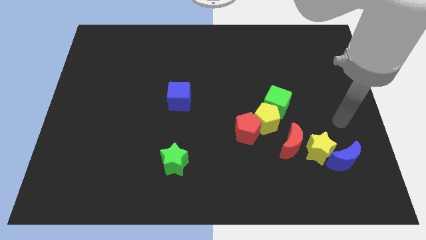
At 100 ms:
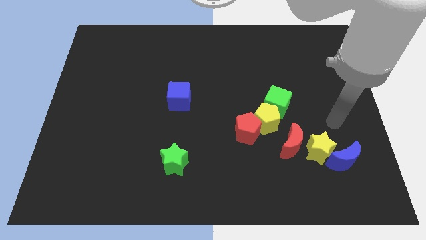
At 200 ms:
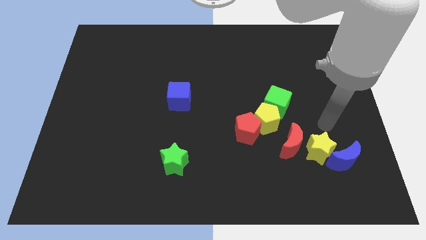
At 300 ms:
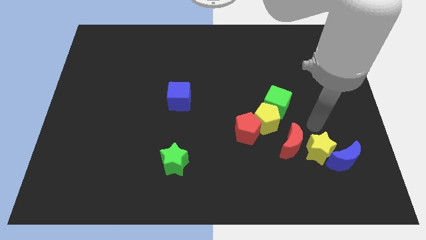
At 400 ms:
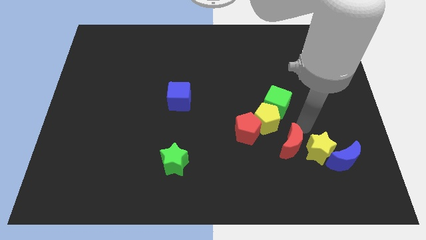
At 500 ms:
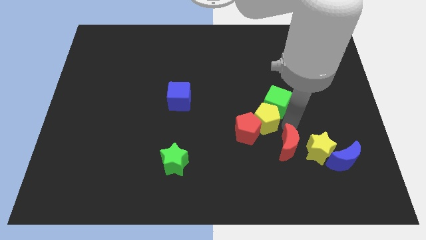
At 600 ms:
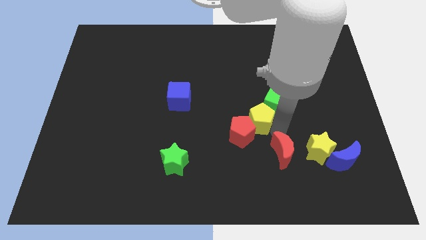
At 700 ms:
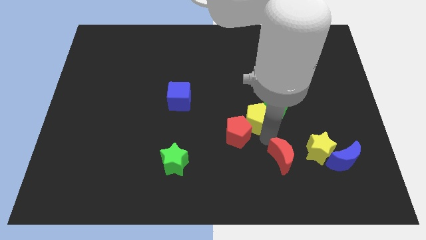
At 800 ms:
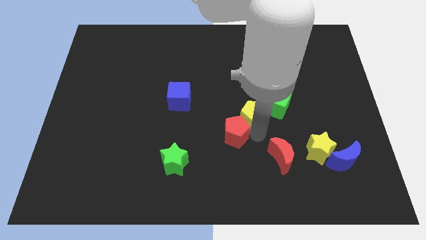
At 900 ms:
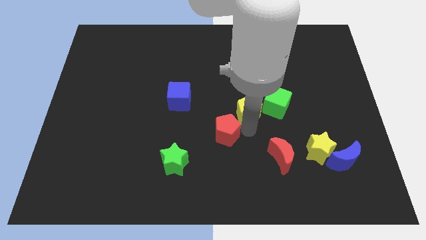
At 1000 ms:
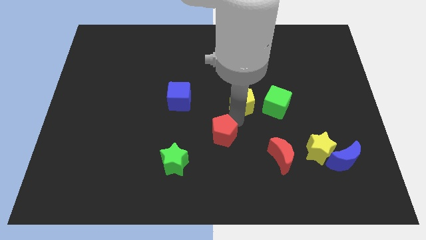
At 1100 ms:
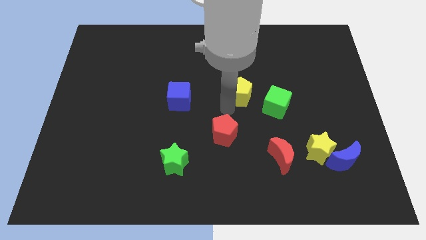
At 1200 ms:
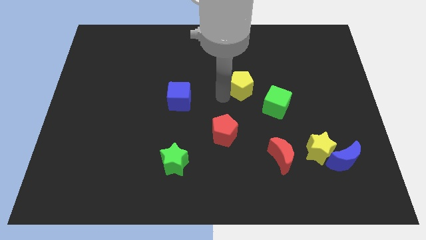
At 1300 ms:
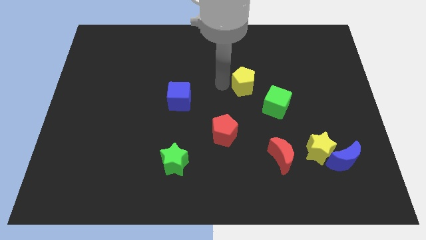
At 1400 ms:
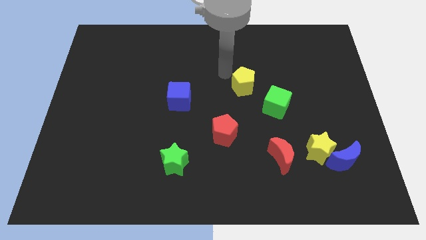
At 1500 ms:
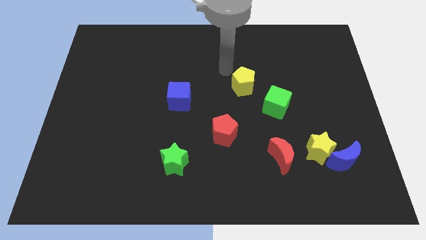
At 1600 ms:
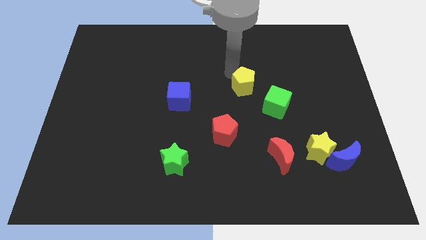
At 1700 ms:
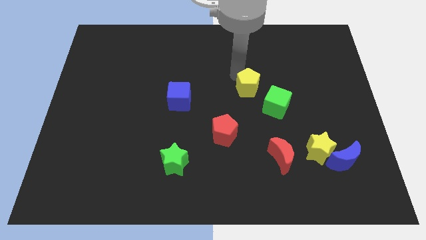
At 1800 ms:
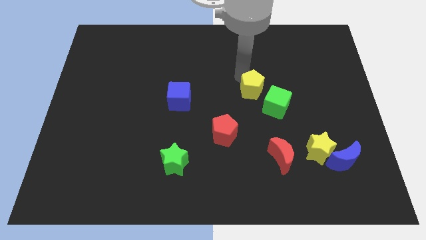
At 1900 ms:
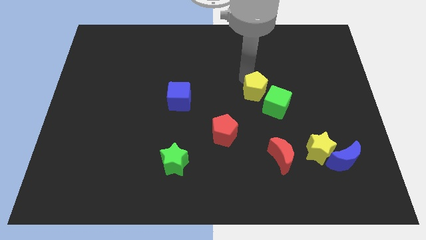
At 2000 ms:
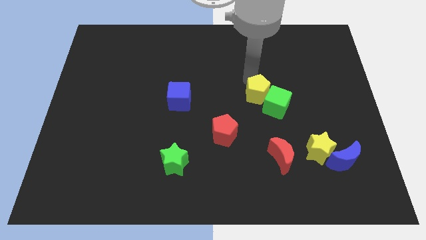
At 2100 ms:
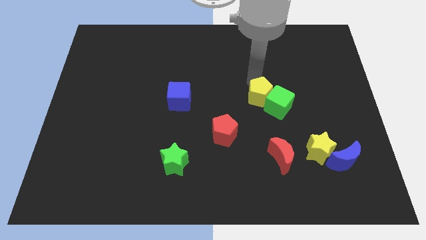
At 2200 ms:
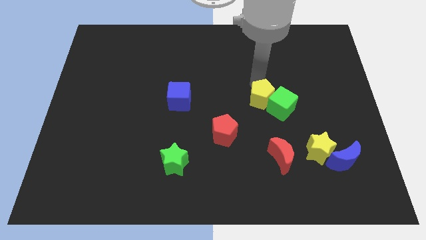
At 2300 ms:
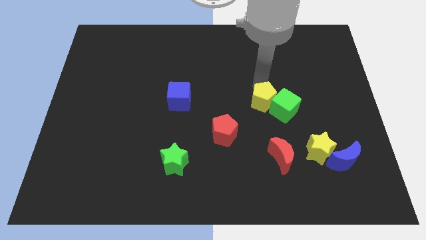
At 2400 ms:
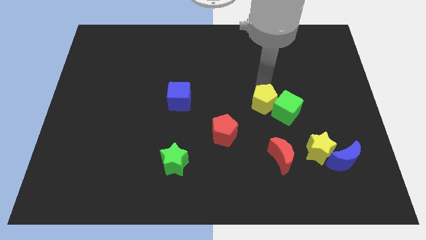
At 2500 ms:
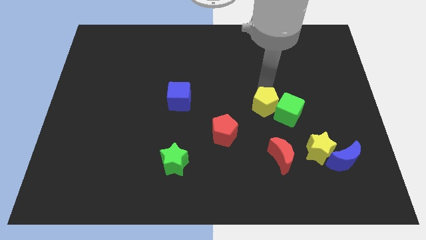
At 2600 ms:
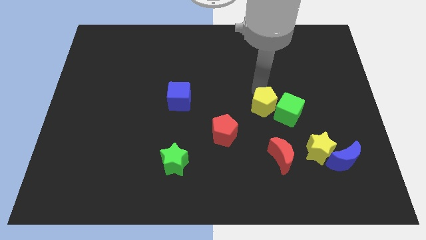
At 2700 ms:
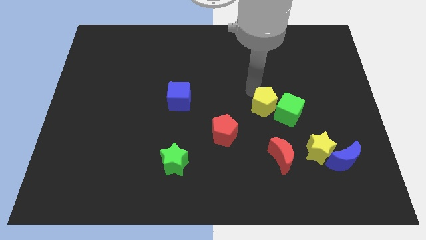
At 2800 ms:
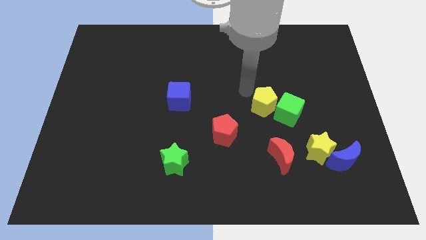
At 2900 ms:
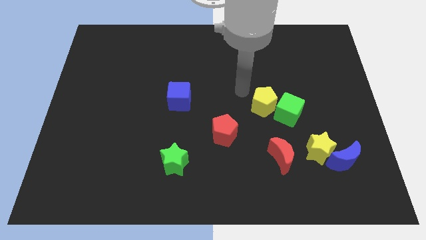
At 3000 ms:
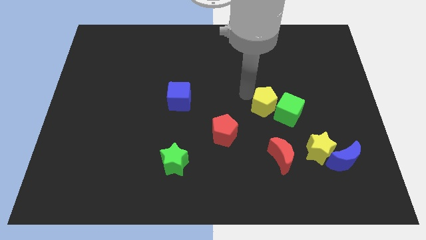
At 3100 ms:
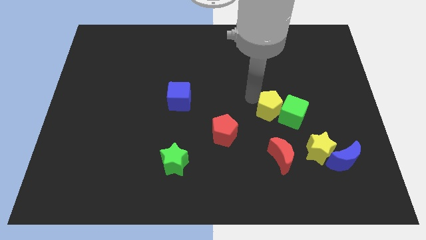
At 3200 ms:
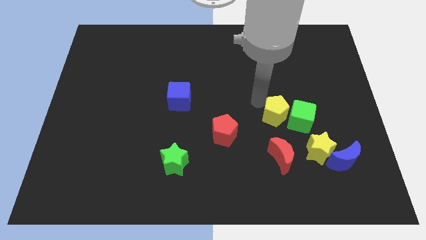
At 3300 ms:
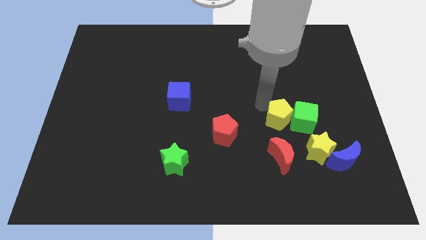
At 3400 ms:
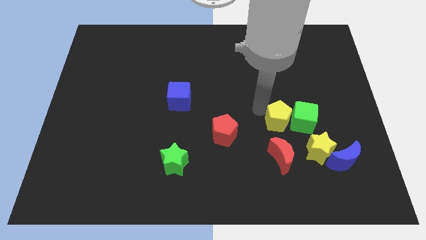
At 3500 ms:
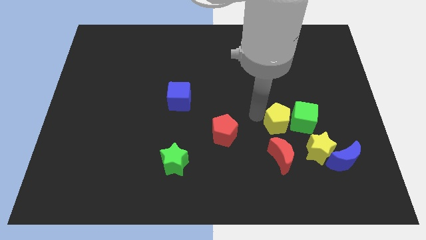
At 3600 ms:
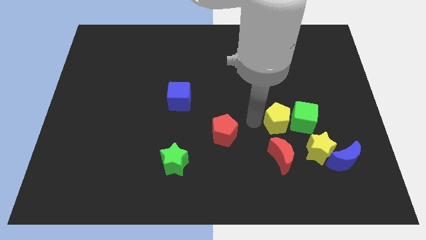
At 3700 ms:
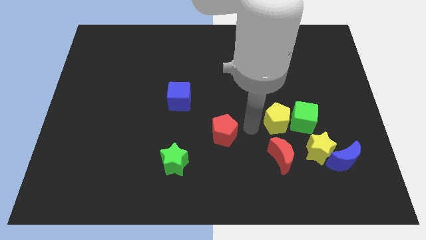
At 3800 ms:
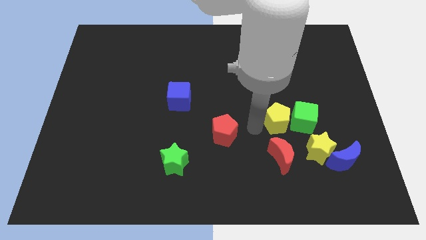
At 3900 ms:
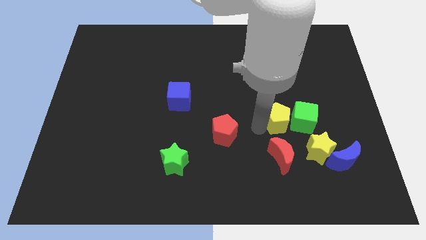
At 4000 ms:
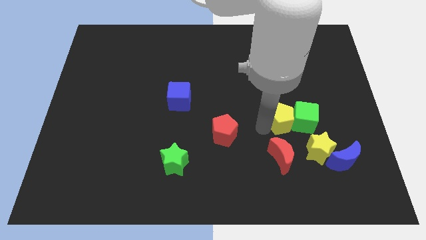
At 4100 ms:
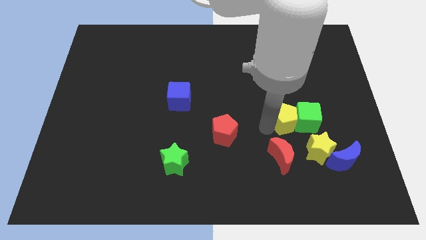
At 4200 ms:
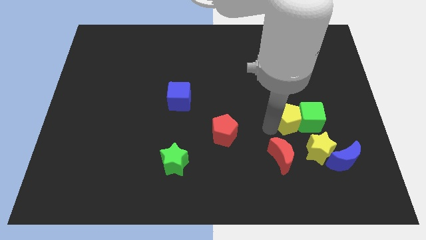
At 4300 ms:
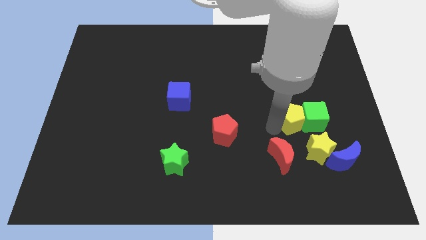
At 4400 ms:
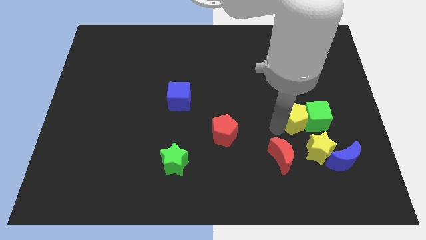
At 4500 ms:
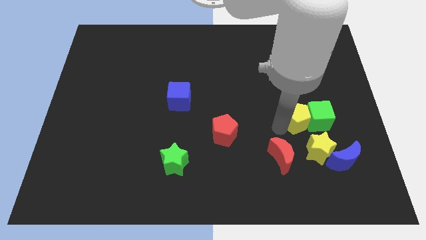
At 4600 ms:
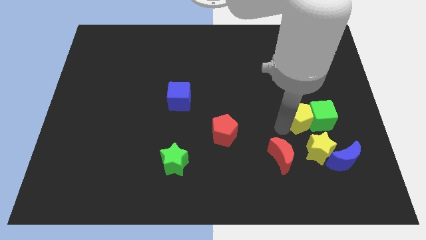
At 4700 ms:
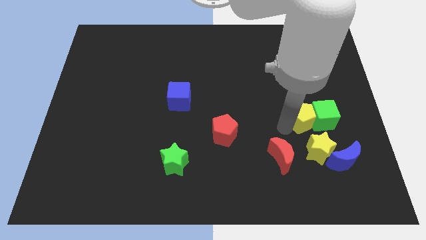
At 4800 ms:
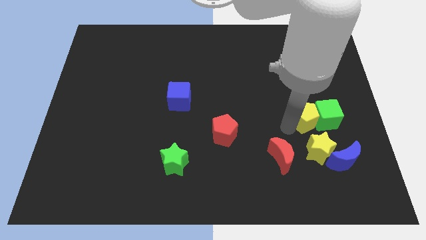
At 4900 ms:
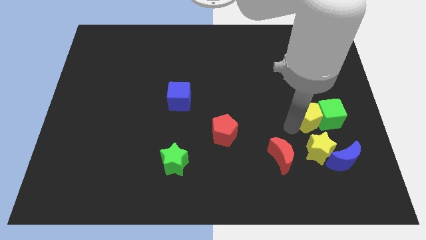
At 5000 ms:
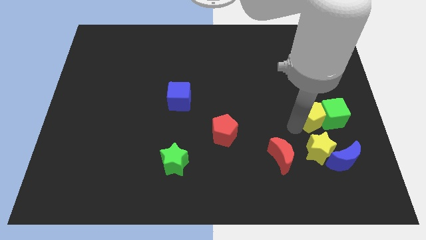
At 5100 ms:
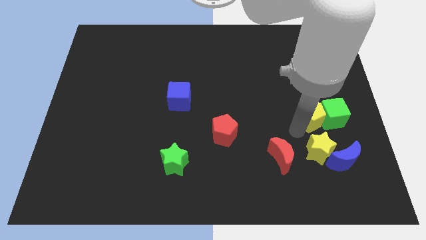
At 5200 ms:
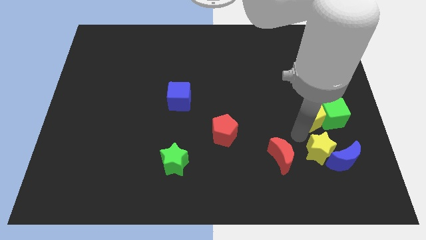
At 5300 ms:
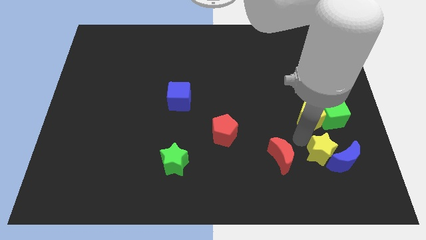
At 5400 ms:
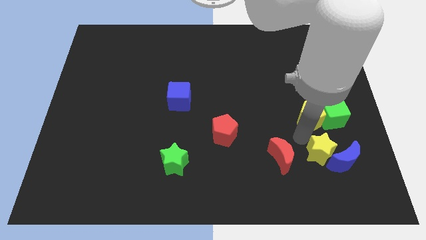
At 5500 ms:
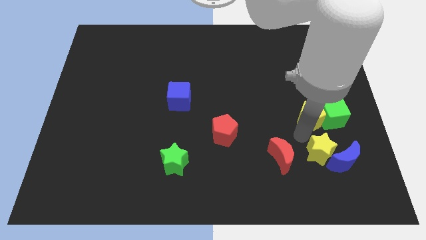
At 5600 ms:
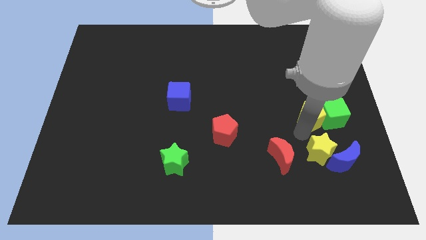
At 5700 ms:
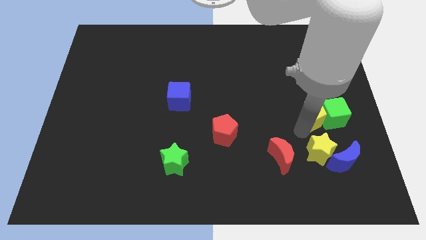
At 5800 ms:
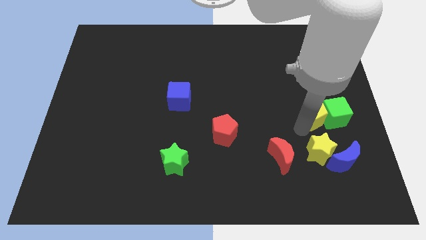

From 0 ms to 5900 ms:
slide the yellow pentagon up and then right slightly

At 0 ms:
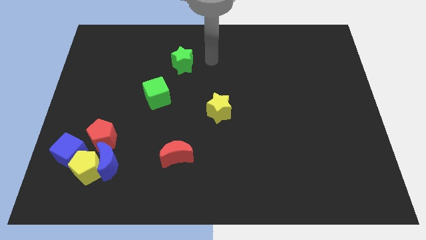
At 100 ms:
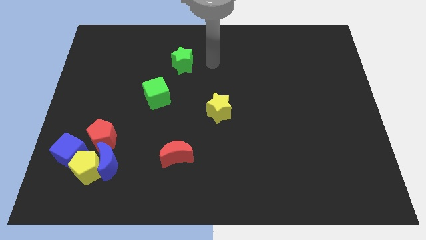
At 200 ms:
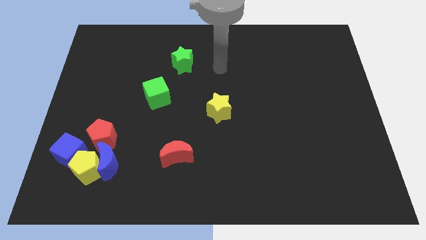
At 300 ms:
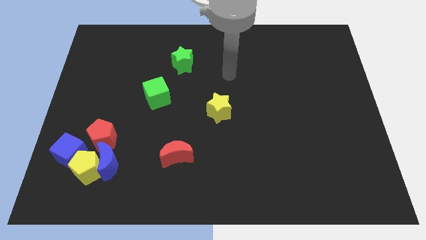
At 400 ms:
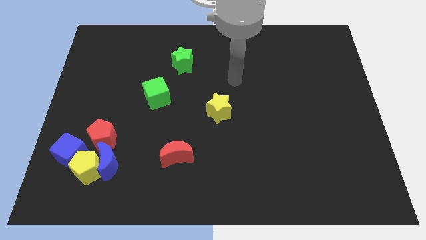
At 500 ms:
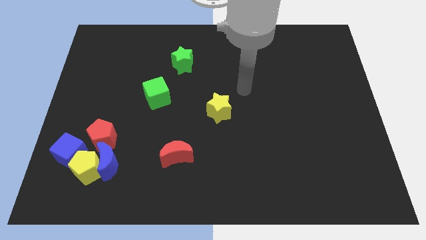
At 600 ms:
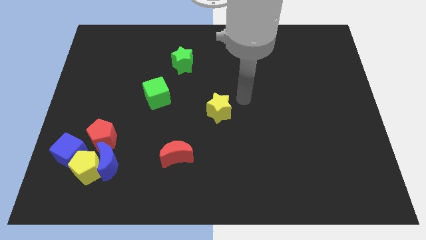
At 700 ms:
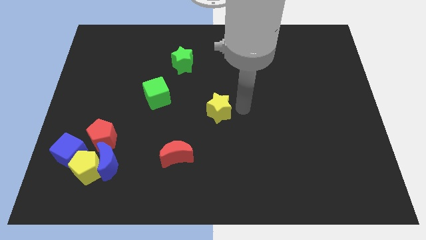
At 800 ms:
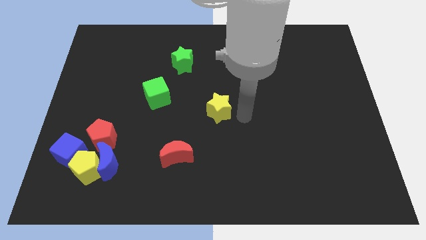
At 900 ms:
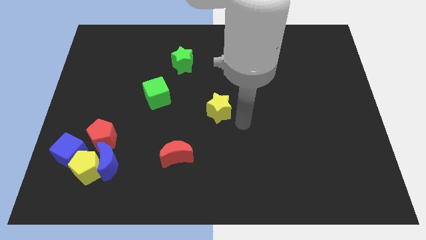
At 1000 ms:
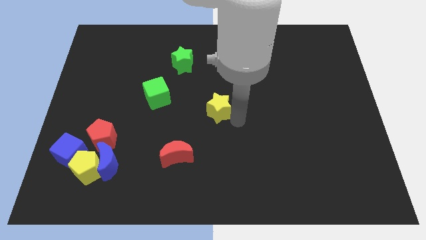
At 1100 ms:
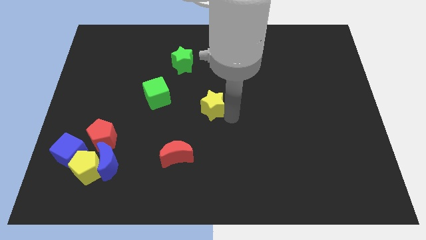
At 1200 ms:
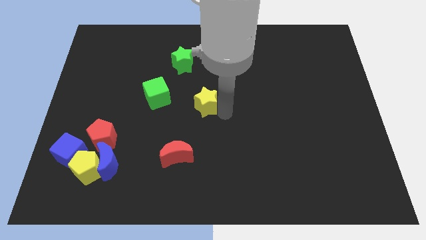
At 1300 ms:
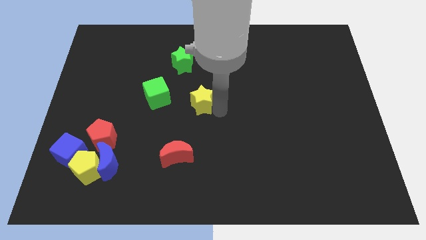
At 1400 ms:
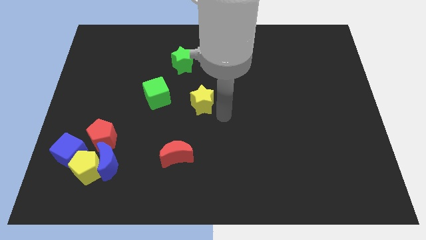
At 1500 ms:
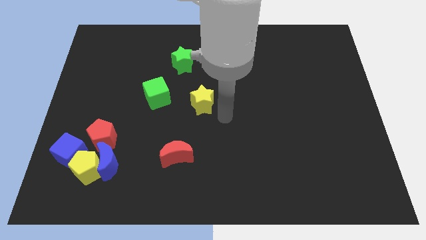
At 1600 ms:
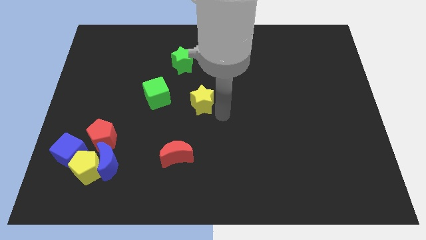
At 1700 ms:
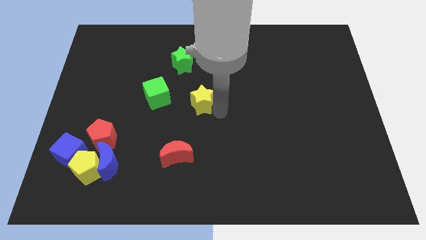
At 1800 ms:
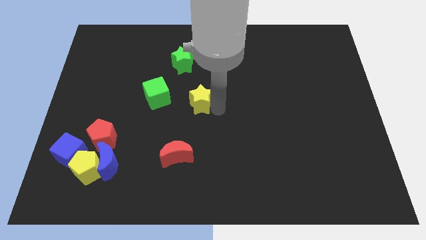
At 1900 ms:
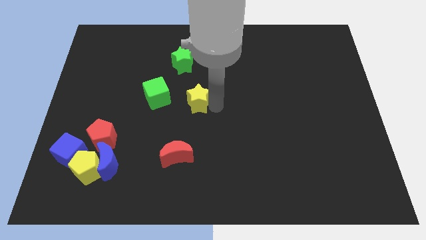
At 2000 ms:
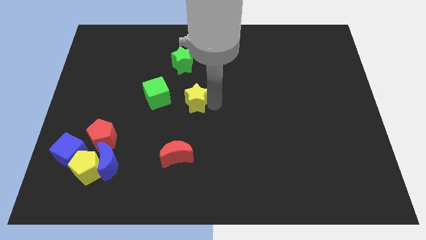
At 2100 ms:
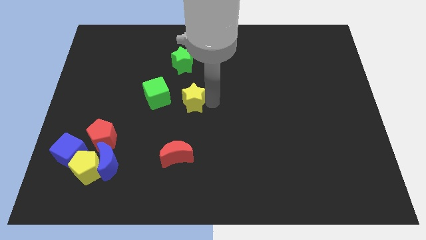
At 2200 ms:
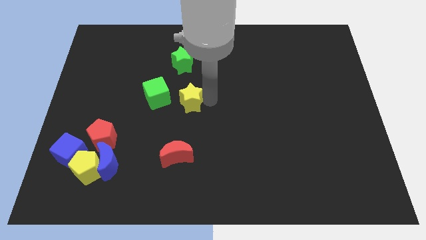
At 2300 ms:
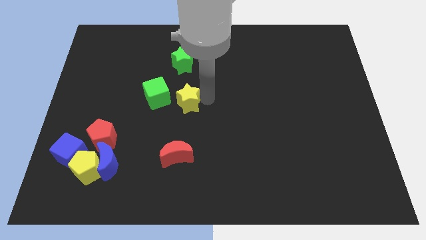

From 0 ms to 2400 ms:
move the yellow star a bit upwards and left diagonally
